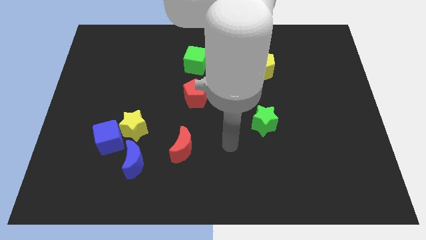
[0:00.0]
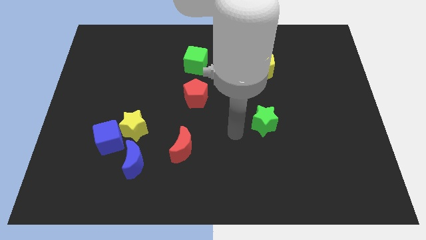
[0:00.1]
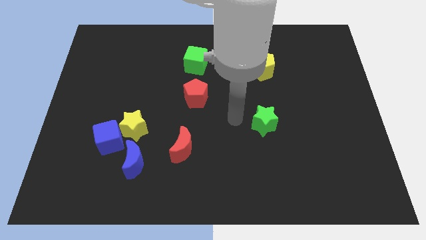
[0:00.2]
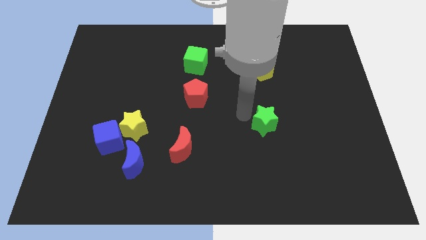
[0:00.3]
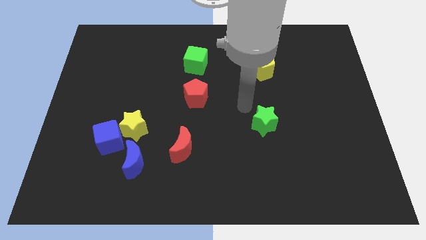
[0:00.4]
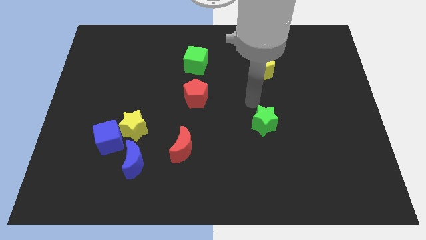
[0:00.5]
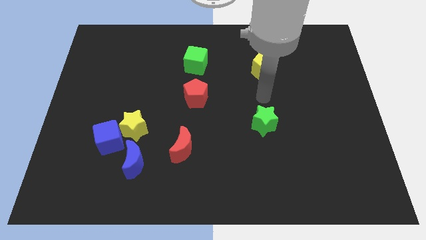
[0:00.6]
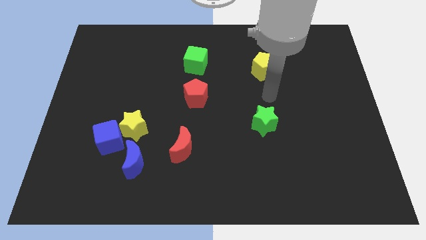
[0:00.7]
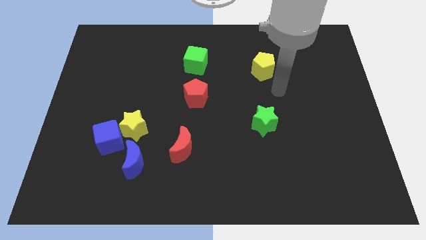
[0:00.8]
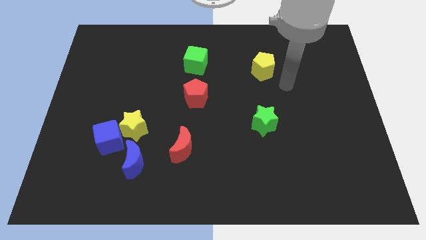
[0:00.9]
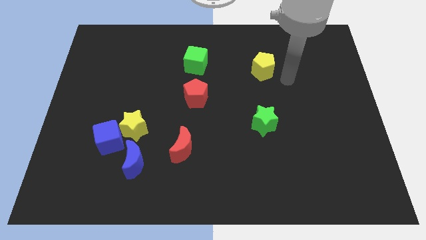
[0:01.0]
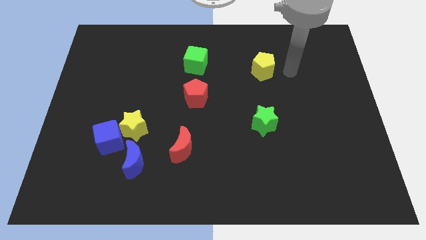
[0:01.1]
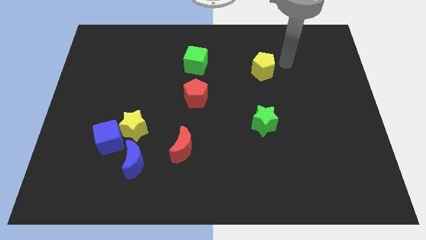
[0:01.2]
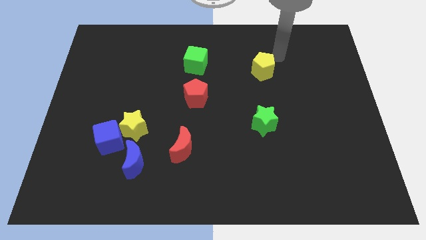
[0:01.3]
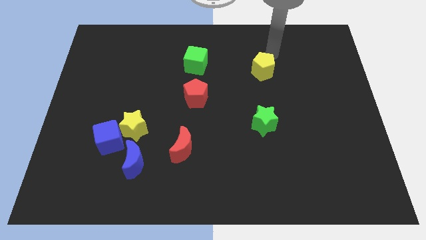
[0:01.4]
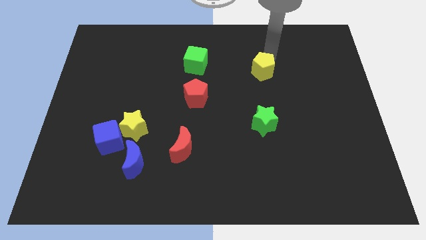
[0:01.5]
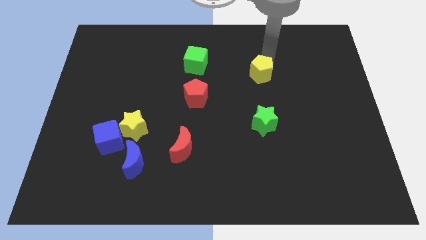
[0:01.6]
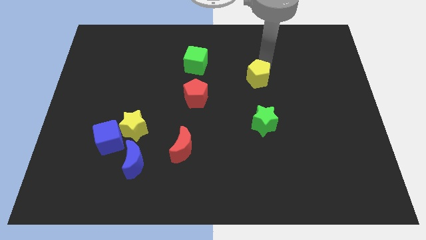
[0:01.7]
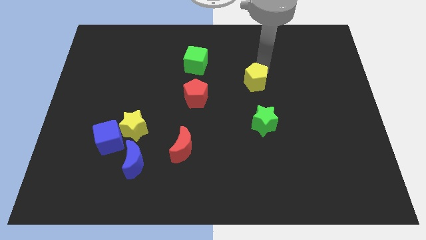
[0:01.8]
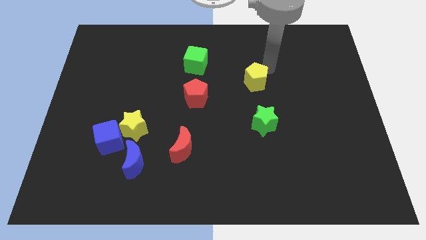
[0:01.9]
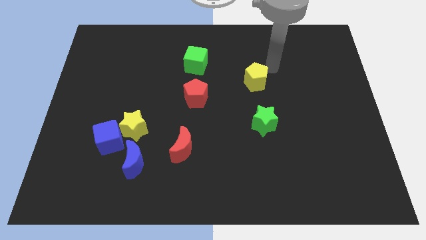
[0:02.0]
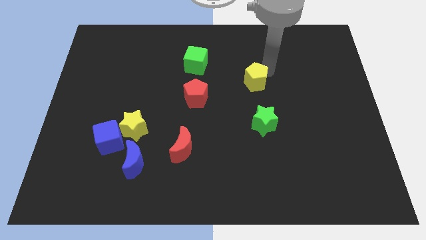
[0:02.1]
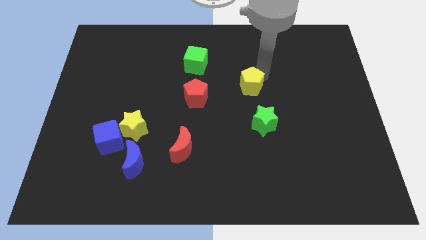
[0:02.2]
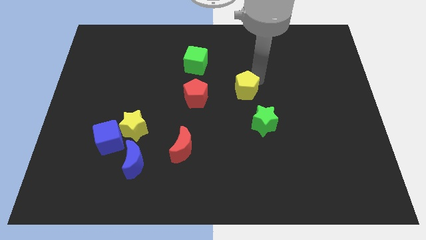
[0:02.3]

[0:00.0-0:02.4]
push the yellow pentagon a little downwards and left diagonally

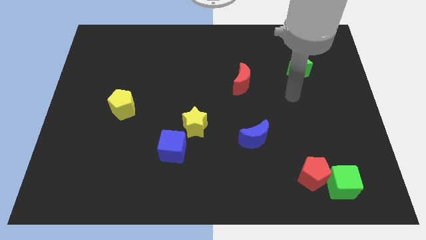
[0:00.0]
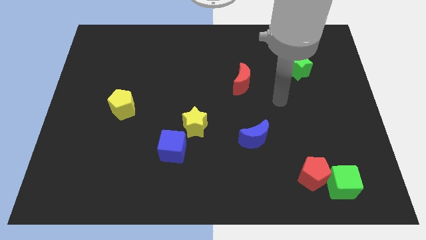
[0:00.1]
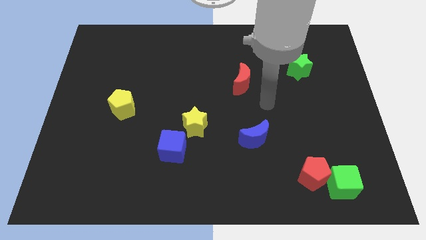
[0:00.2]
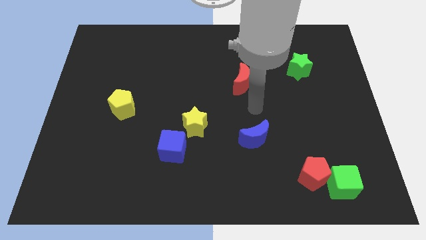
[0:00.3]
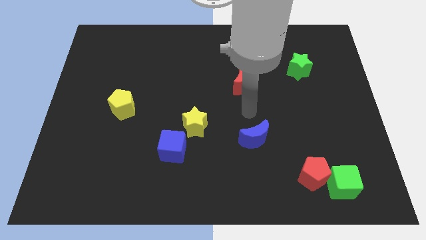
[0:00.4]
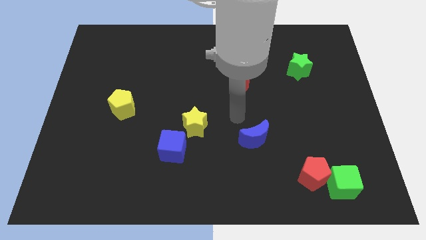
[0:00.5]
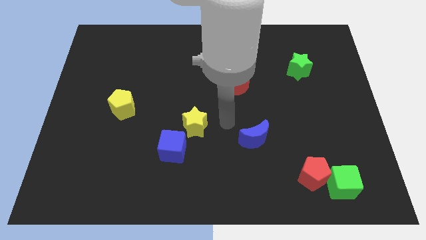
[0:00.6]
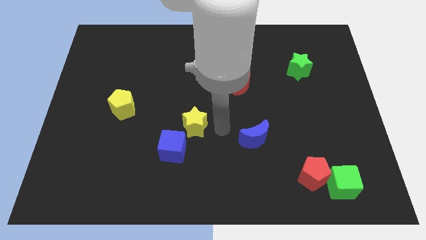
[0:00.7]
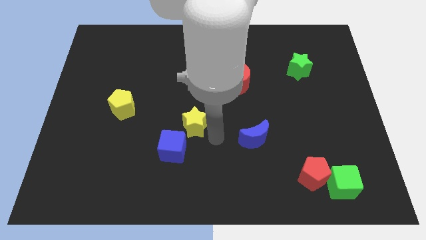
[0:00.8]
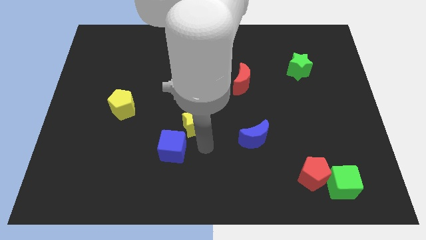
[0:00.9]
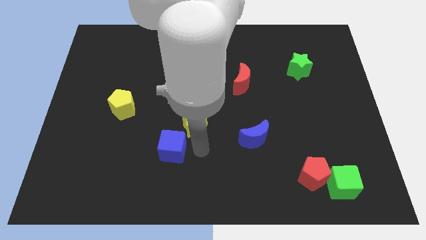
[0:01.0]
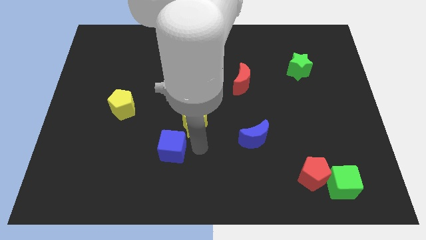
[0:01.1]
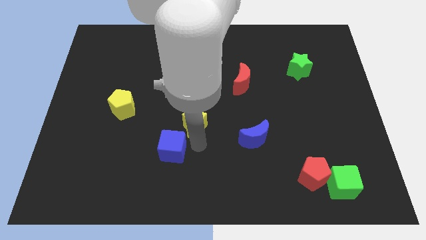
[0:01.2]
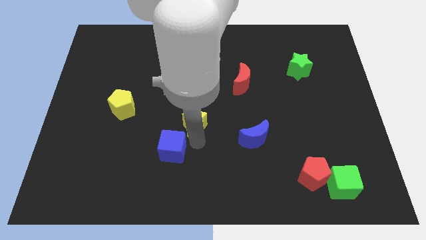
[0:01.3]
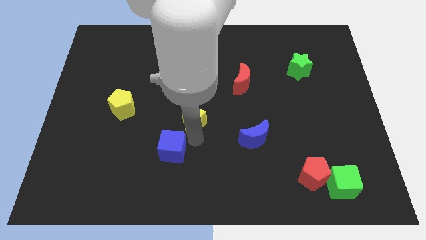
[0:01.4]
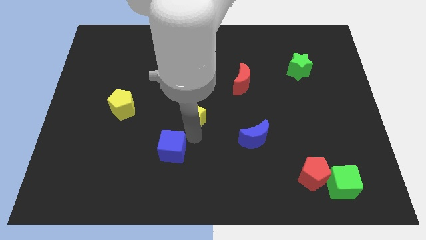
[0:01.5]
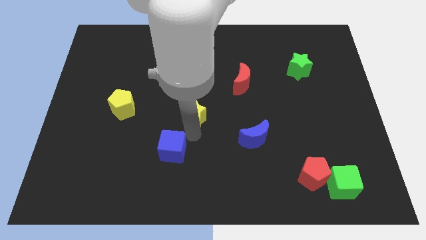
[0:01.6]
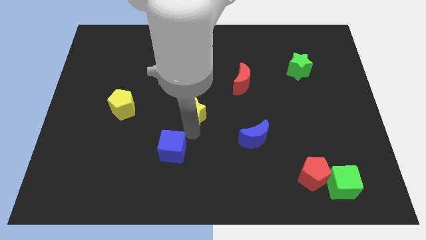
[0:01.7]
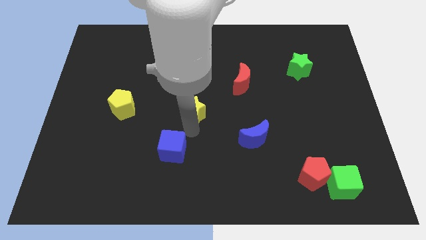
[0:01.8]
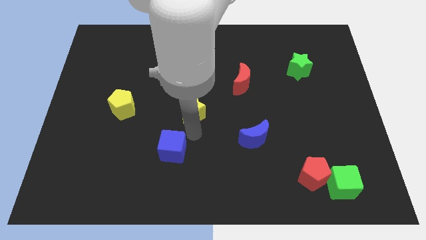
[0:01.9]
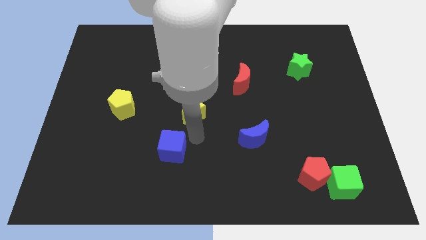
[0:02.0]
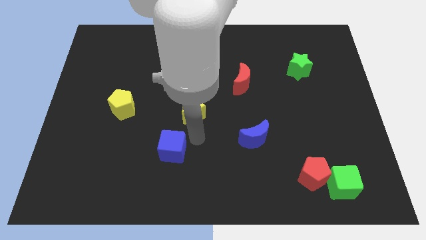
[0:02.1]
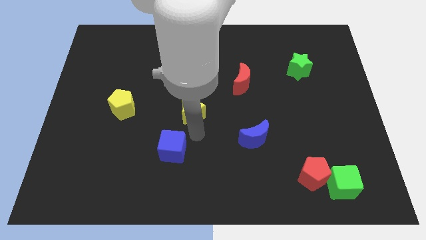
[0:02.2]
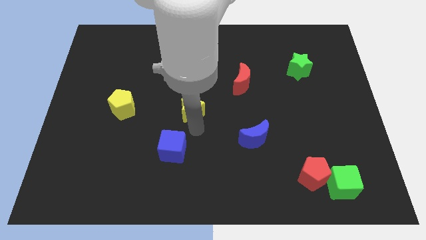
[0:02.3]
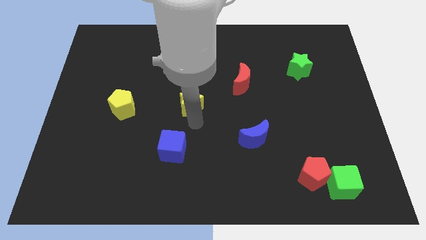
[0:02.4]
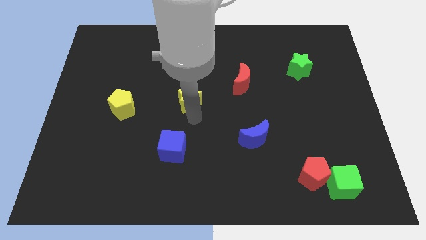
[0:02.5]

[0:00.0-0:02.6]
push the yellow star a bit upwards

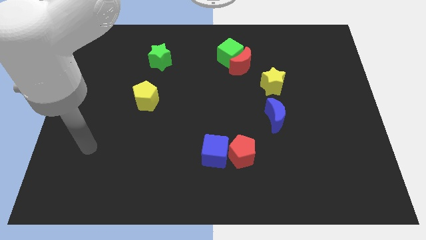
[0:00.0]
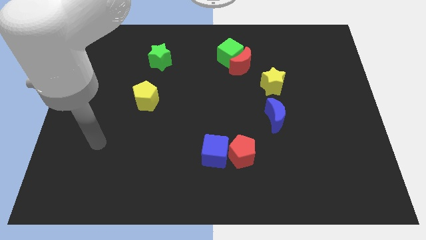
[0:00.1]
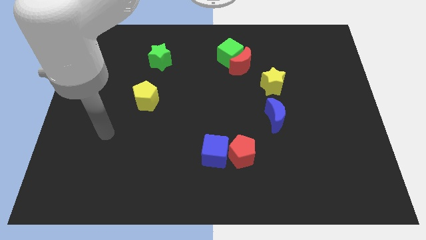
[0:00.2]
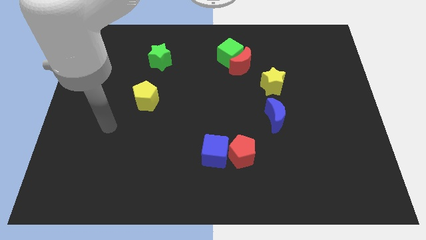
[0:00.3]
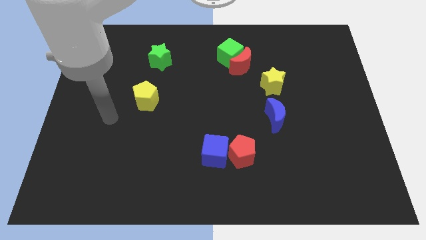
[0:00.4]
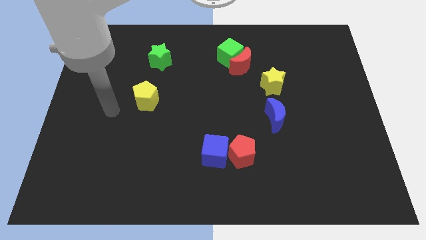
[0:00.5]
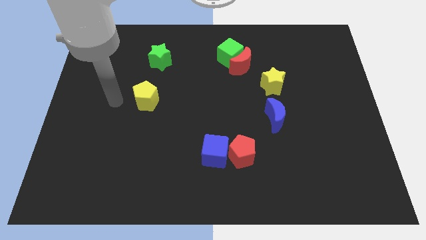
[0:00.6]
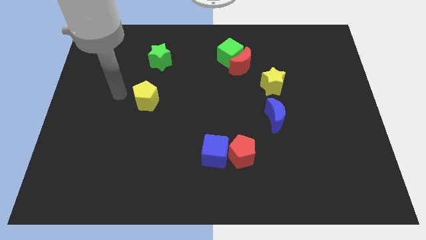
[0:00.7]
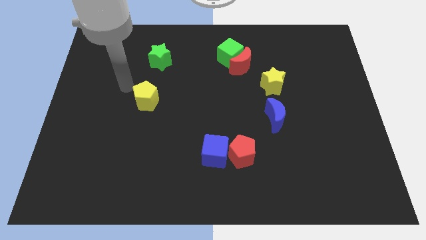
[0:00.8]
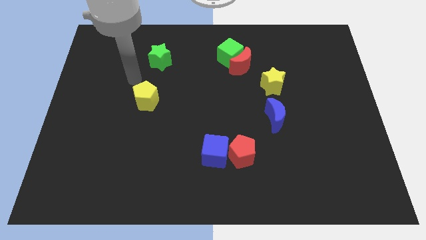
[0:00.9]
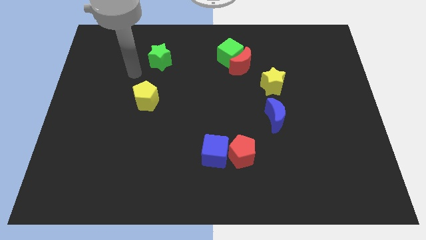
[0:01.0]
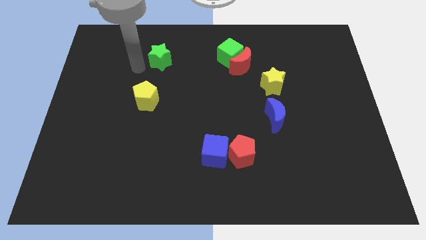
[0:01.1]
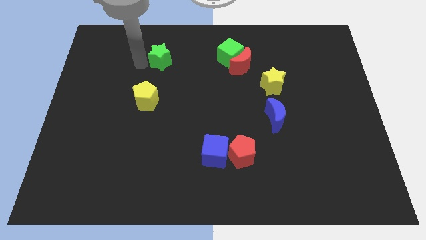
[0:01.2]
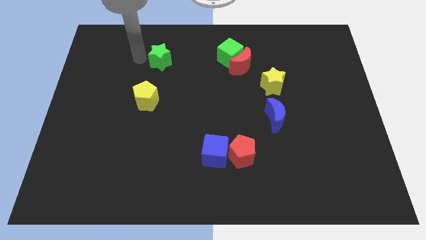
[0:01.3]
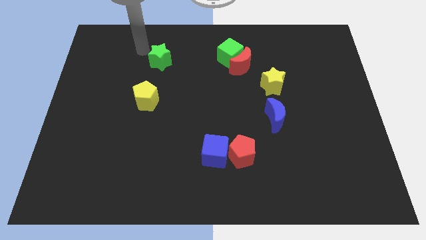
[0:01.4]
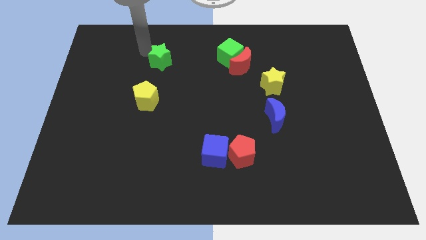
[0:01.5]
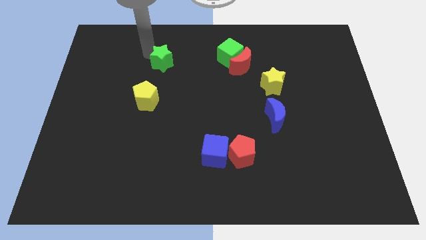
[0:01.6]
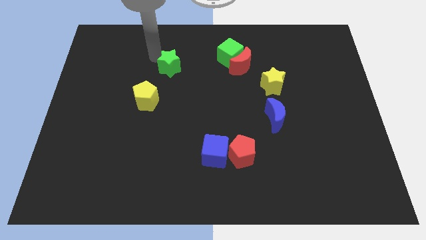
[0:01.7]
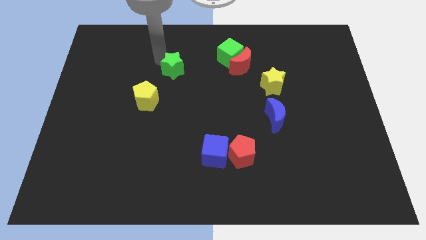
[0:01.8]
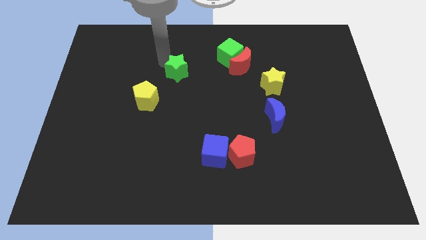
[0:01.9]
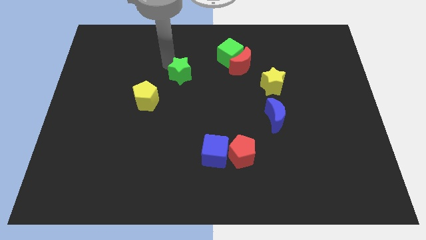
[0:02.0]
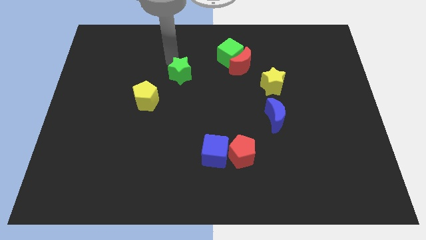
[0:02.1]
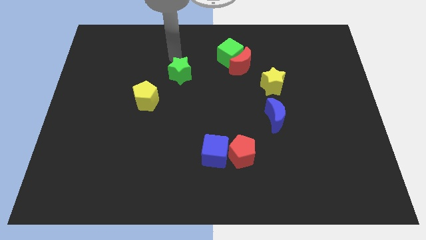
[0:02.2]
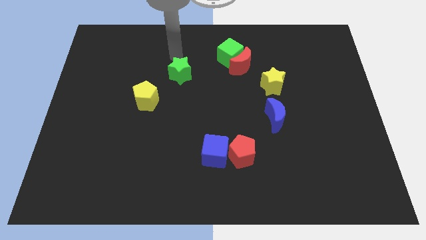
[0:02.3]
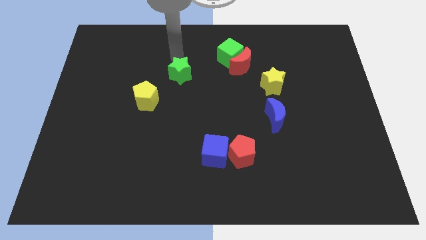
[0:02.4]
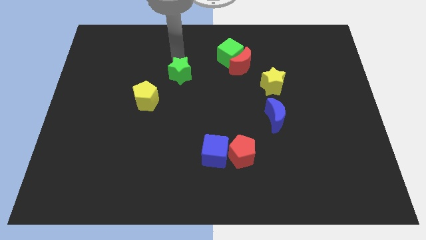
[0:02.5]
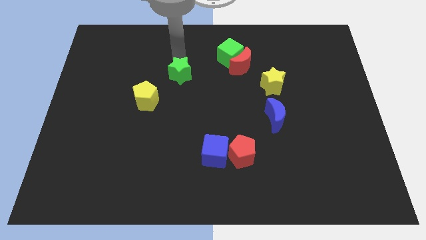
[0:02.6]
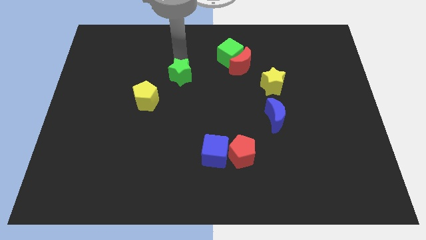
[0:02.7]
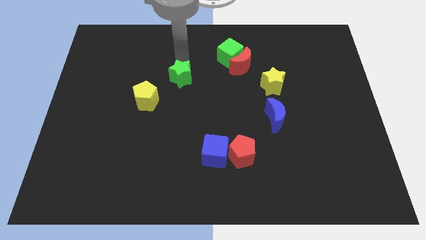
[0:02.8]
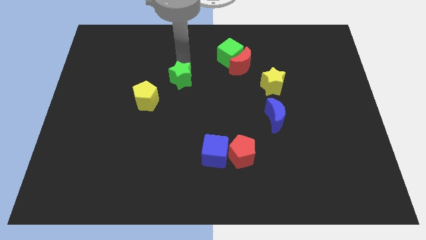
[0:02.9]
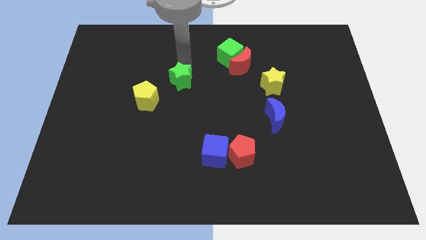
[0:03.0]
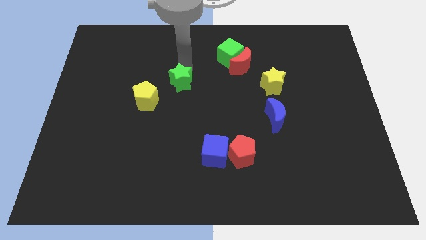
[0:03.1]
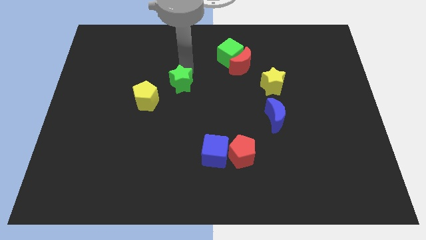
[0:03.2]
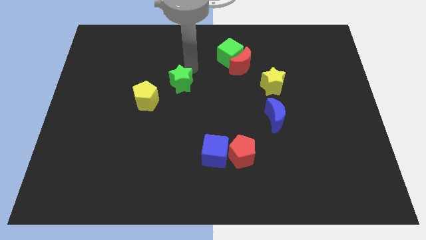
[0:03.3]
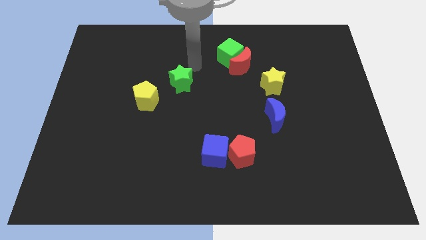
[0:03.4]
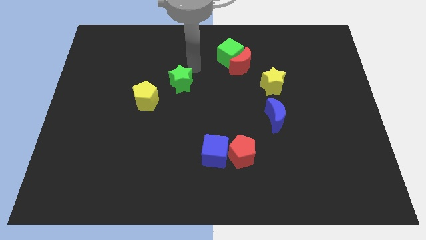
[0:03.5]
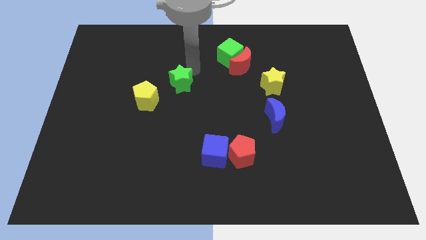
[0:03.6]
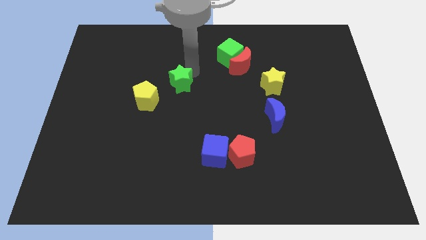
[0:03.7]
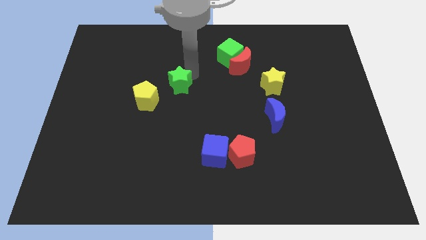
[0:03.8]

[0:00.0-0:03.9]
slightly slide the green star downwards
